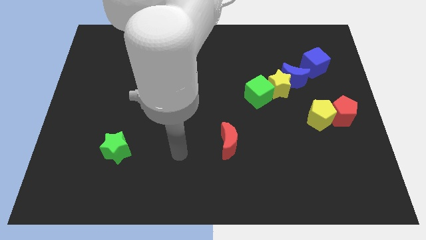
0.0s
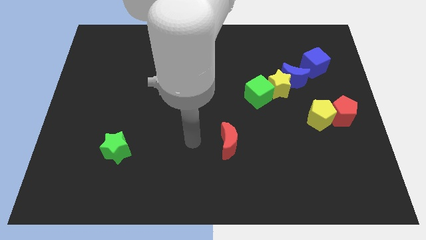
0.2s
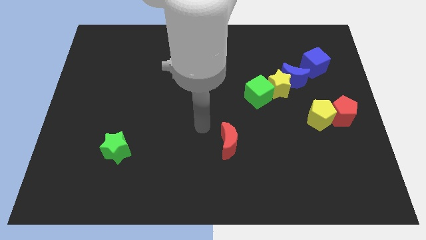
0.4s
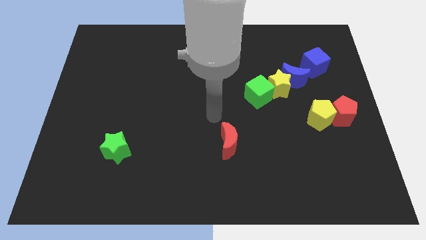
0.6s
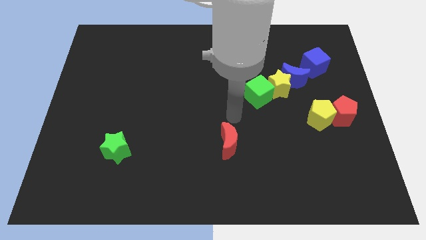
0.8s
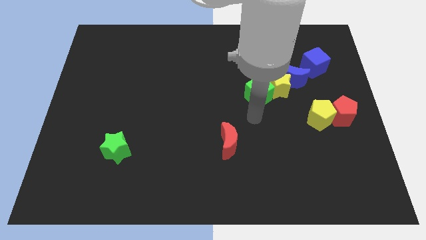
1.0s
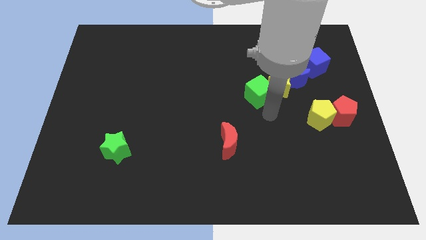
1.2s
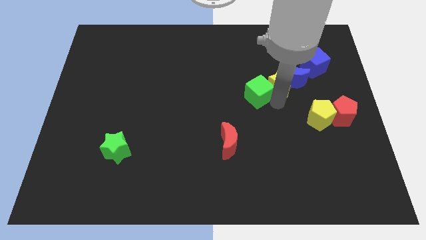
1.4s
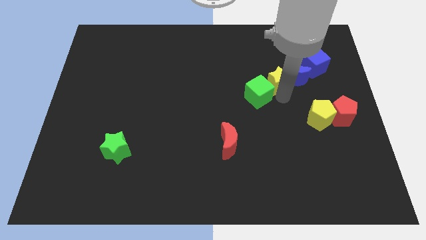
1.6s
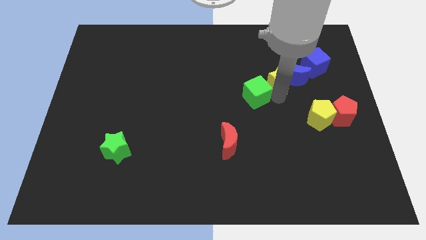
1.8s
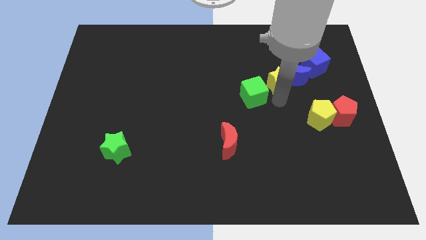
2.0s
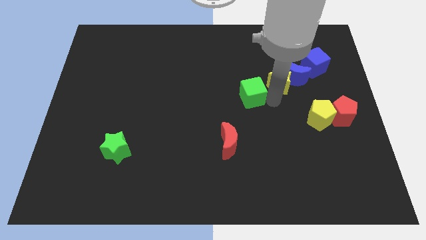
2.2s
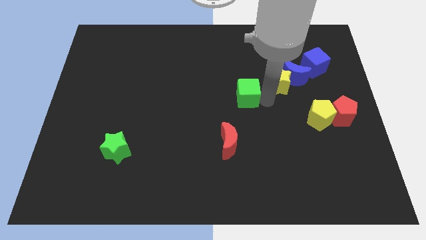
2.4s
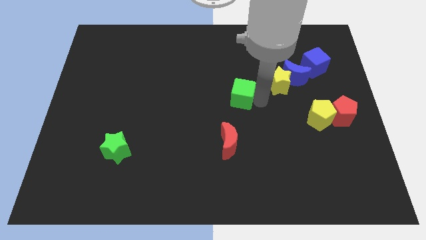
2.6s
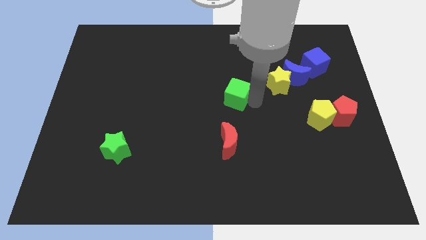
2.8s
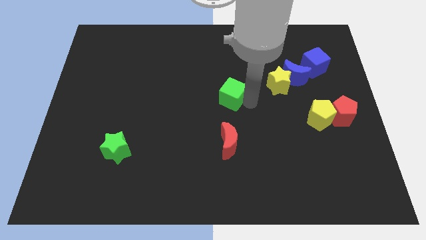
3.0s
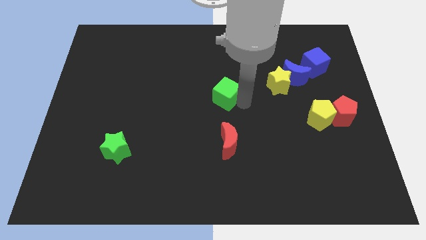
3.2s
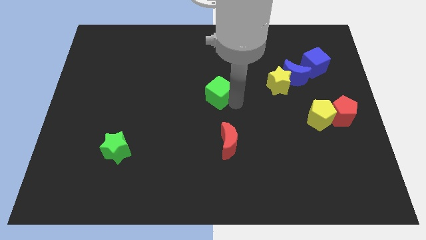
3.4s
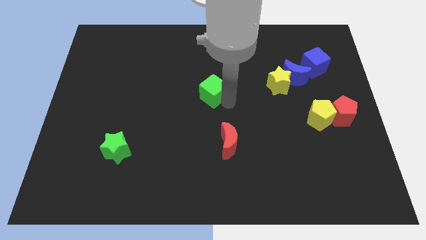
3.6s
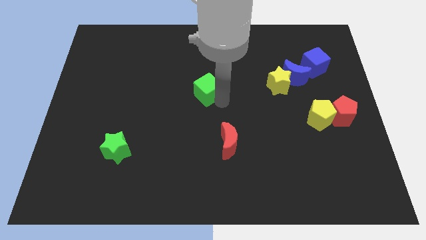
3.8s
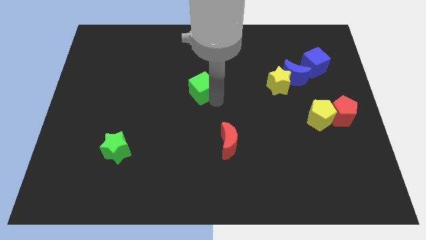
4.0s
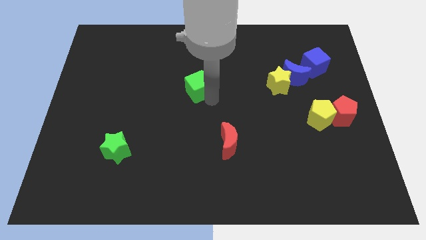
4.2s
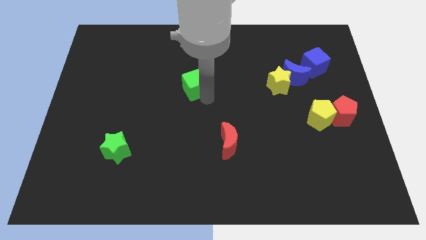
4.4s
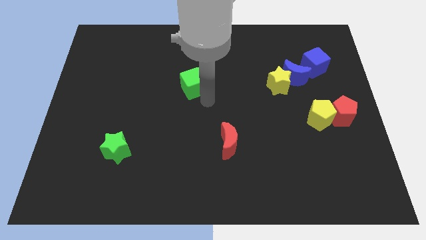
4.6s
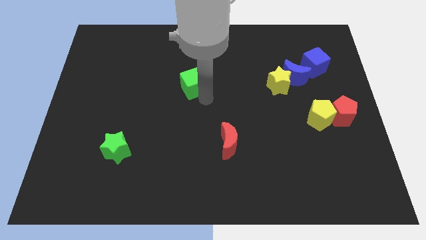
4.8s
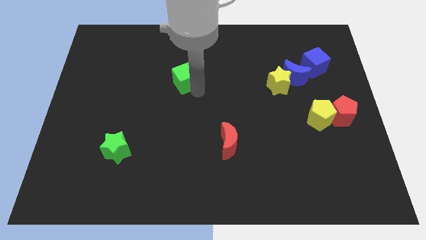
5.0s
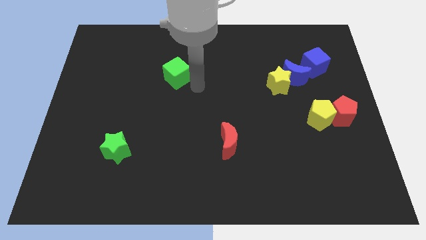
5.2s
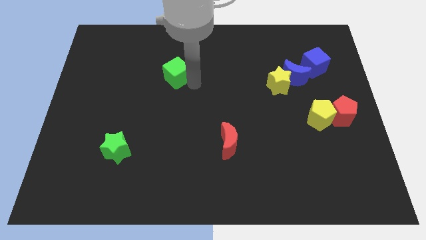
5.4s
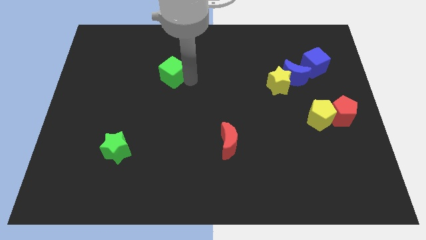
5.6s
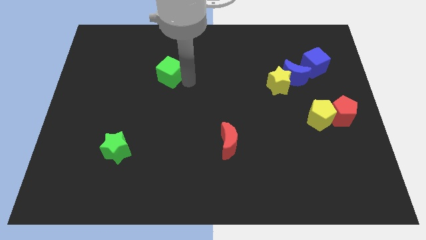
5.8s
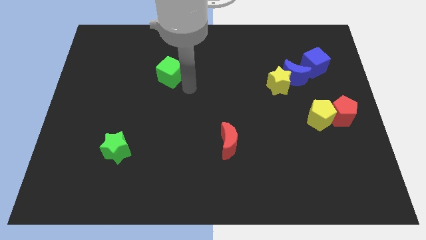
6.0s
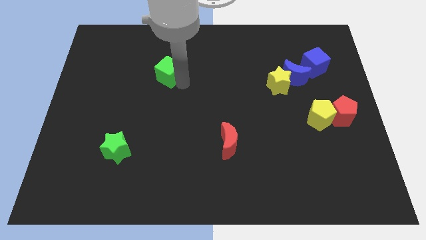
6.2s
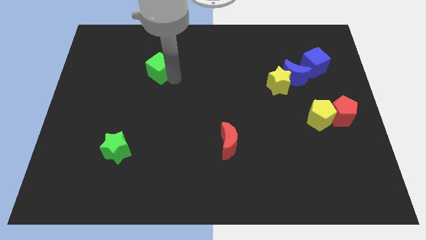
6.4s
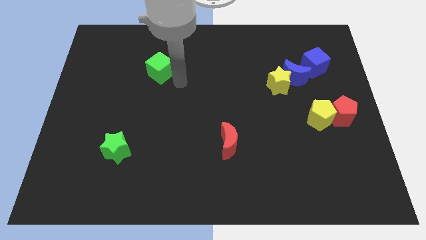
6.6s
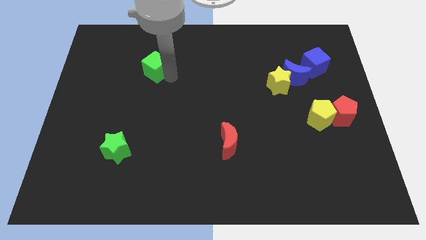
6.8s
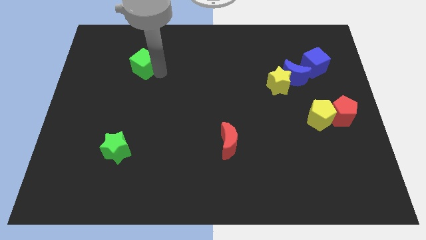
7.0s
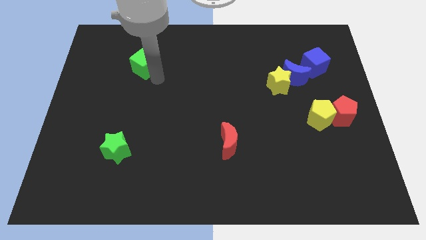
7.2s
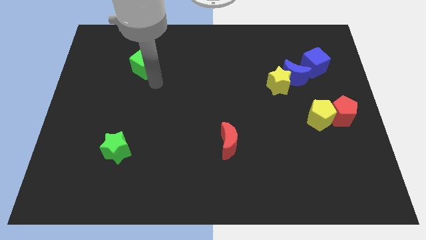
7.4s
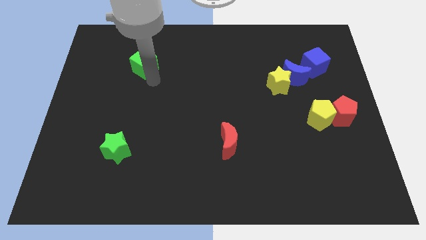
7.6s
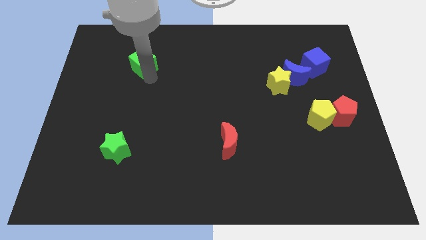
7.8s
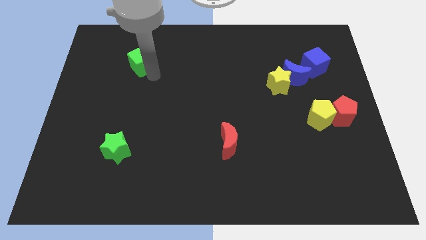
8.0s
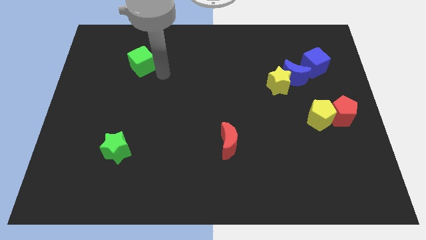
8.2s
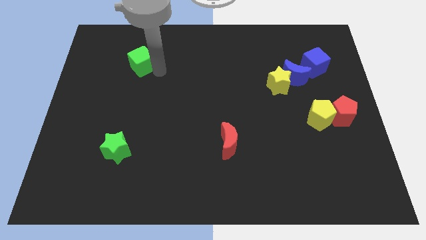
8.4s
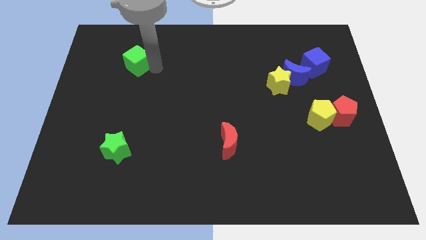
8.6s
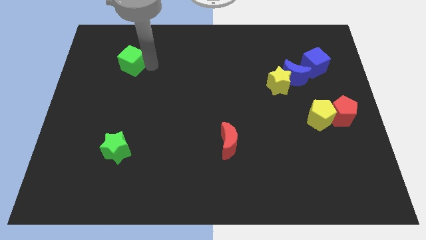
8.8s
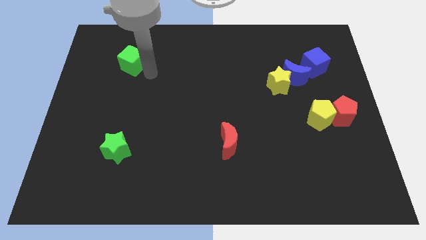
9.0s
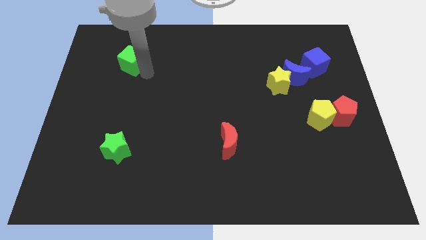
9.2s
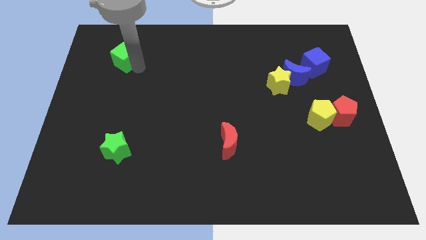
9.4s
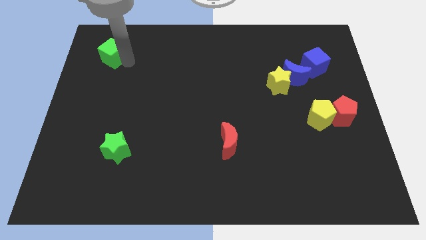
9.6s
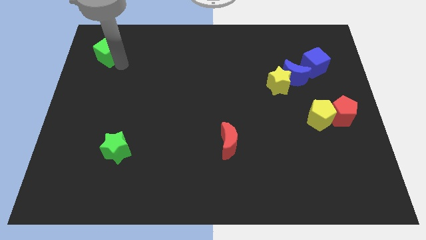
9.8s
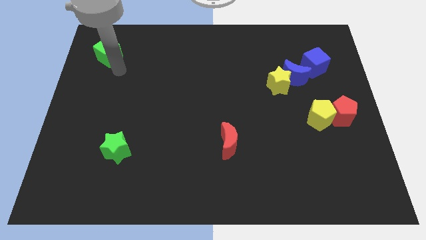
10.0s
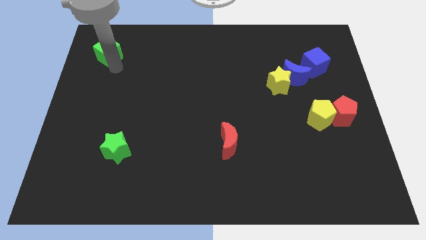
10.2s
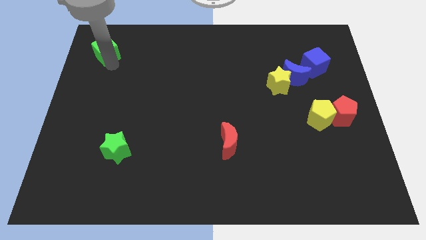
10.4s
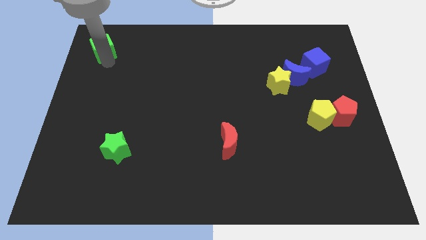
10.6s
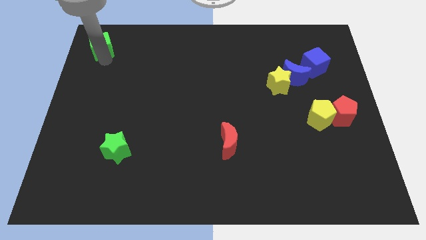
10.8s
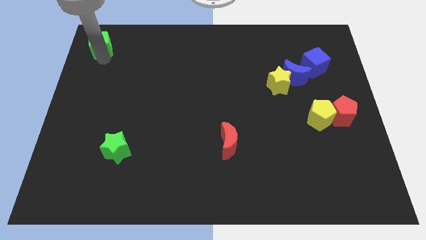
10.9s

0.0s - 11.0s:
move the green cube to the top left corner
